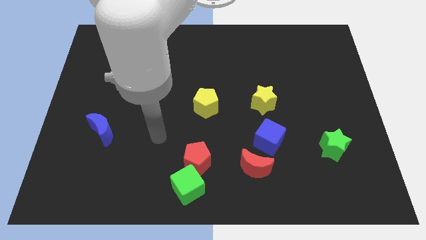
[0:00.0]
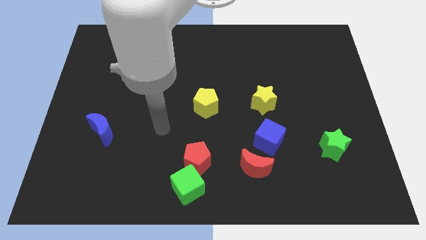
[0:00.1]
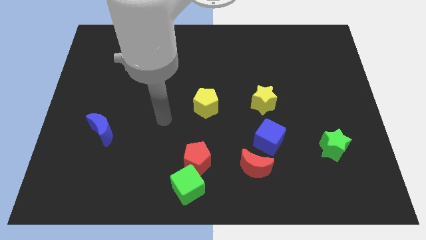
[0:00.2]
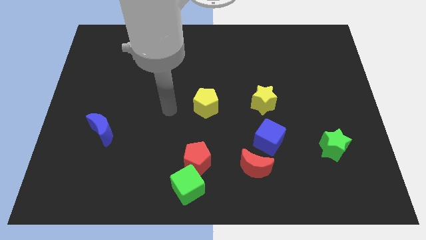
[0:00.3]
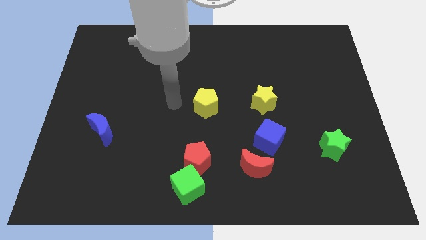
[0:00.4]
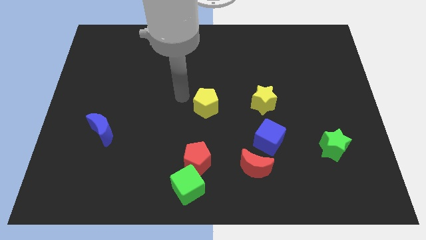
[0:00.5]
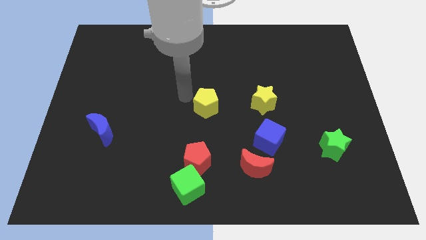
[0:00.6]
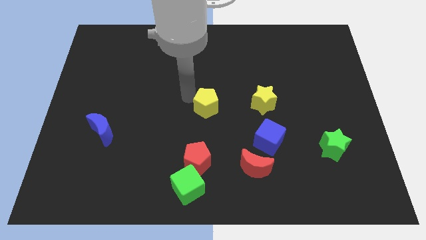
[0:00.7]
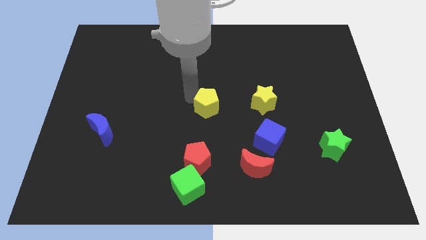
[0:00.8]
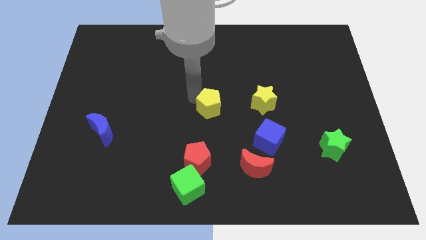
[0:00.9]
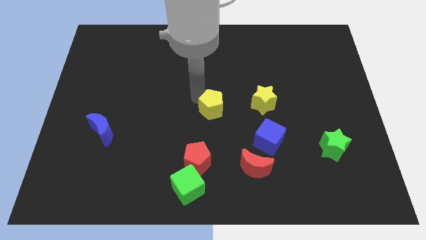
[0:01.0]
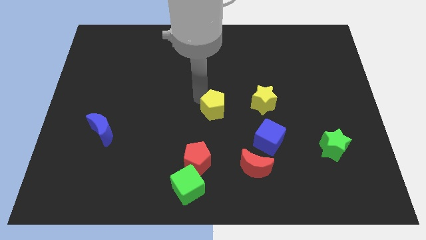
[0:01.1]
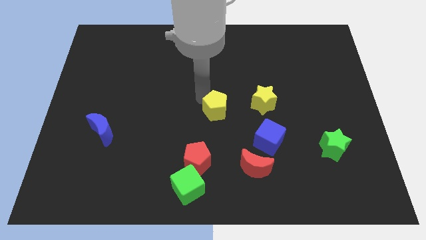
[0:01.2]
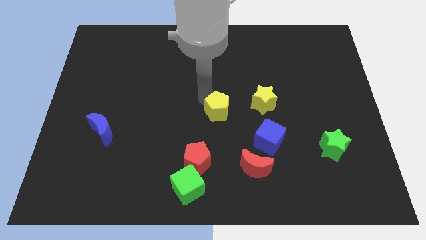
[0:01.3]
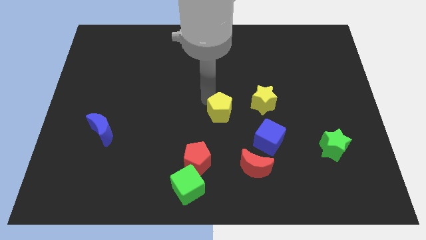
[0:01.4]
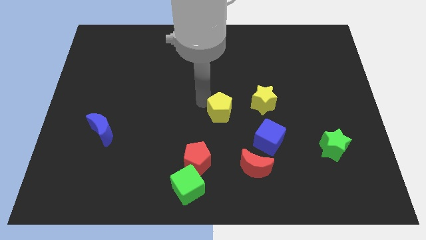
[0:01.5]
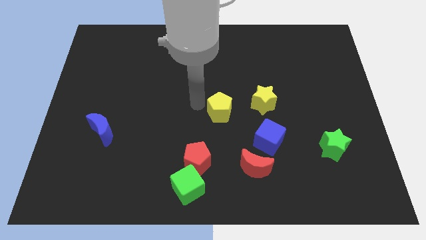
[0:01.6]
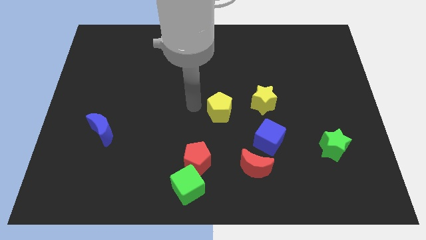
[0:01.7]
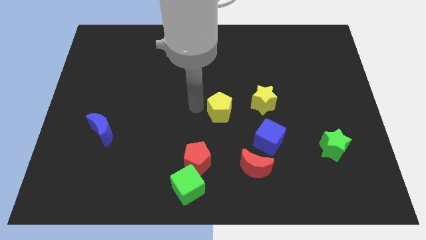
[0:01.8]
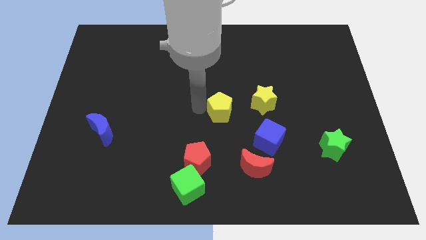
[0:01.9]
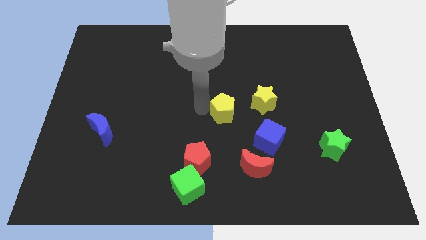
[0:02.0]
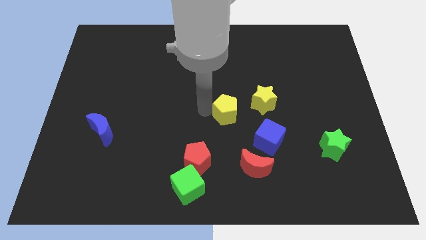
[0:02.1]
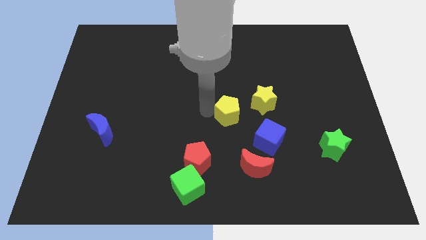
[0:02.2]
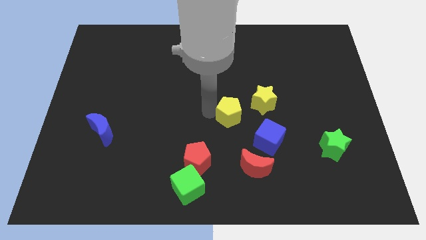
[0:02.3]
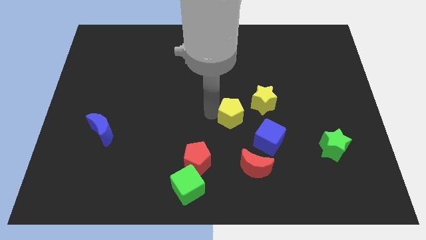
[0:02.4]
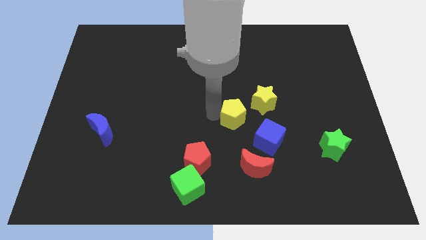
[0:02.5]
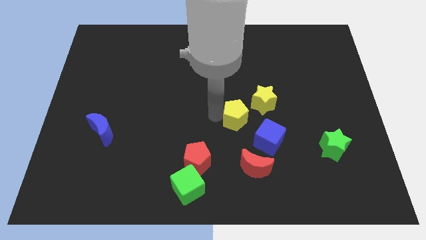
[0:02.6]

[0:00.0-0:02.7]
slightly push the yellow pentagon down and then to the right

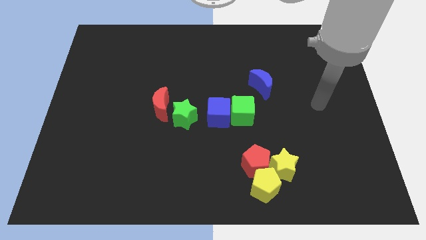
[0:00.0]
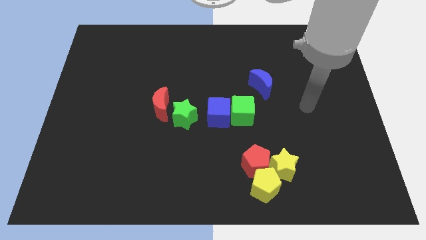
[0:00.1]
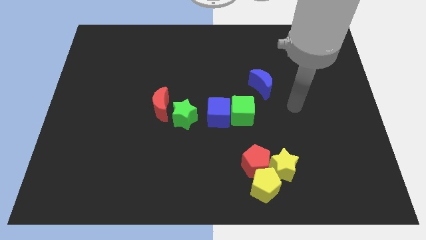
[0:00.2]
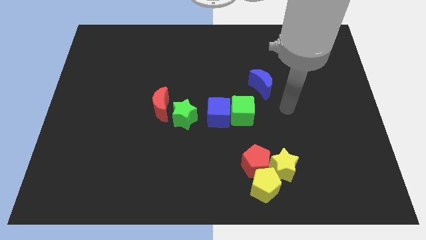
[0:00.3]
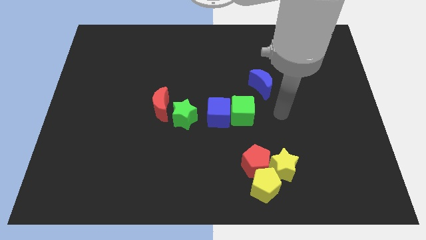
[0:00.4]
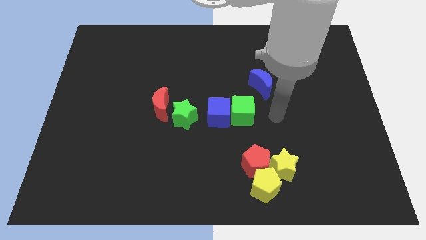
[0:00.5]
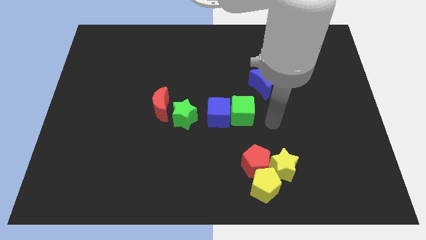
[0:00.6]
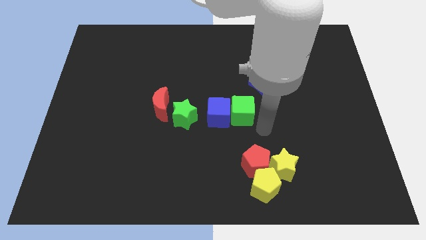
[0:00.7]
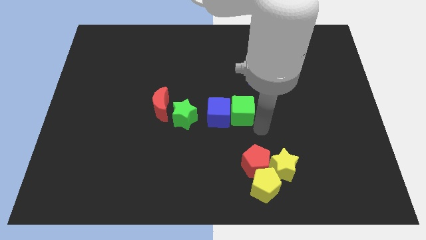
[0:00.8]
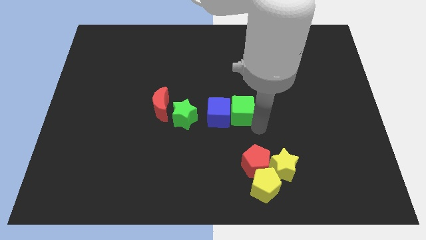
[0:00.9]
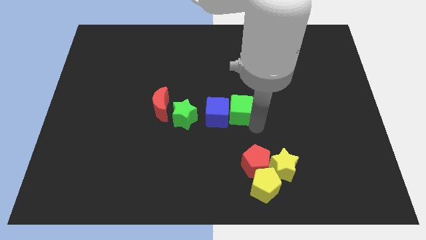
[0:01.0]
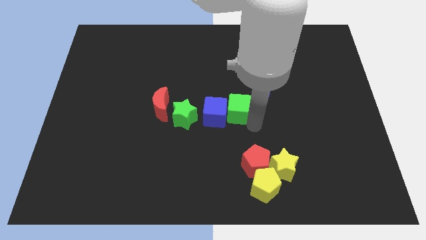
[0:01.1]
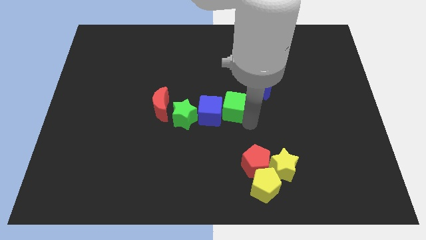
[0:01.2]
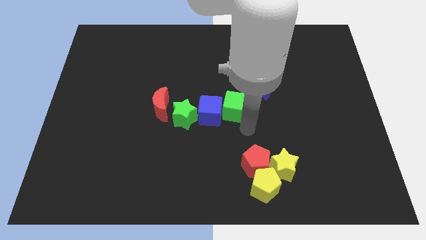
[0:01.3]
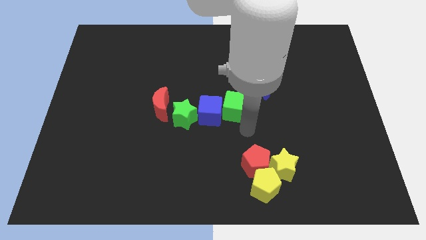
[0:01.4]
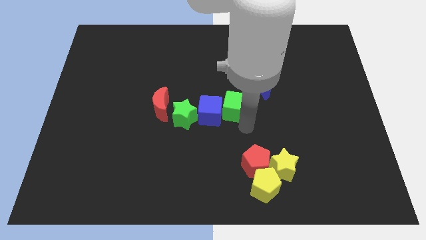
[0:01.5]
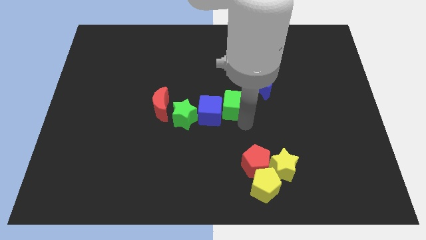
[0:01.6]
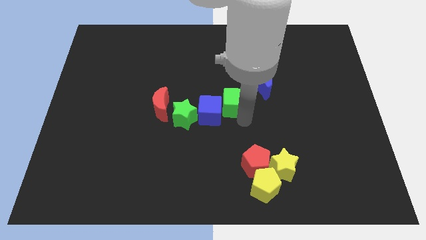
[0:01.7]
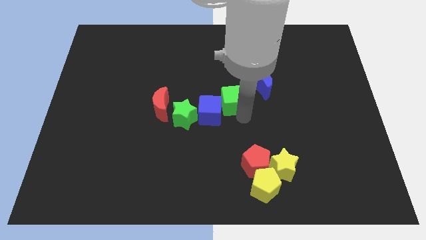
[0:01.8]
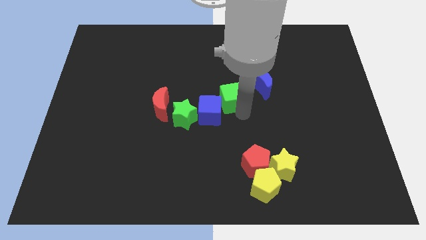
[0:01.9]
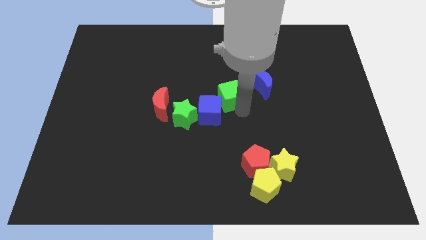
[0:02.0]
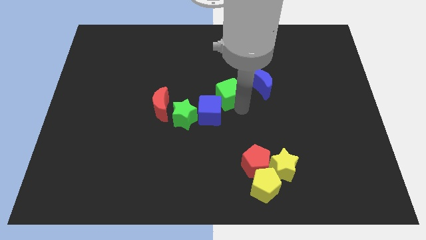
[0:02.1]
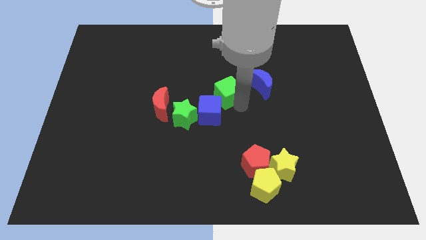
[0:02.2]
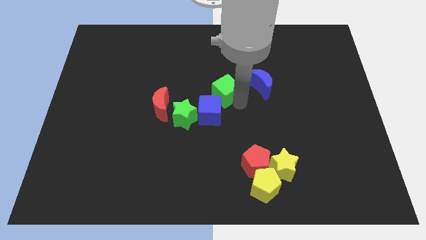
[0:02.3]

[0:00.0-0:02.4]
slide the green cube somewhat upwards and then left

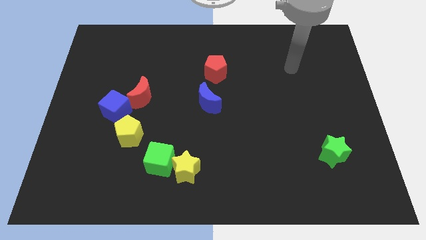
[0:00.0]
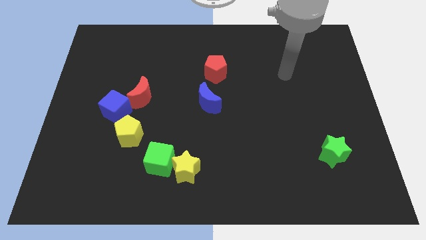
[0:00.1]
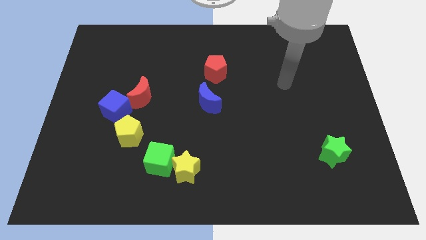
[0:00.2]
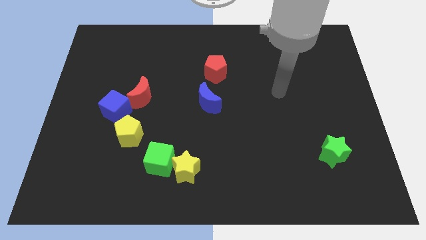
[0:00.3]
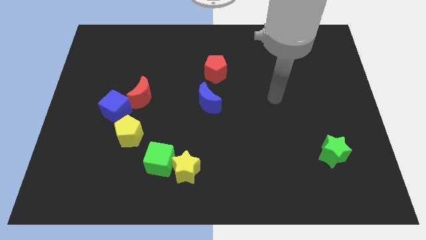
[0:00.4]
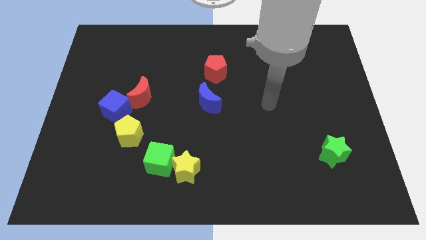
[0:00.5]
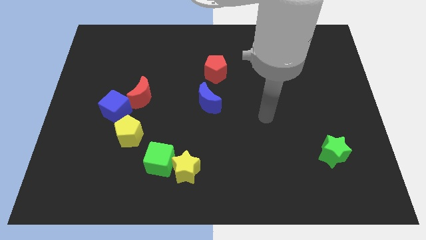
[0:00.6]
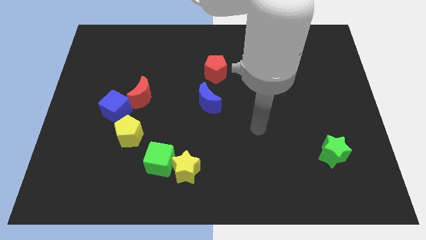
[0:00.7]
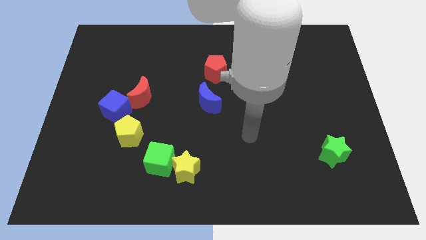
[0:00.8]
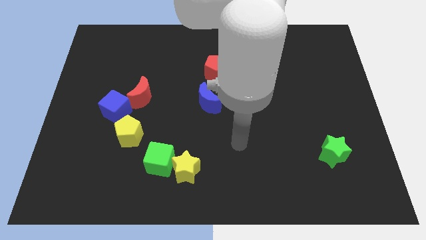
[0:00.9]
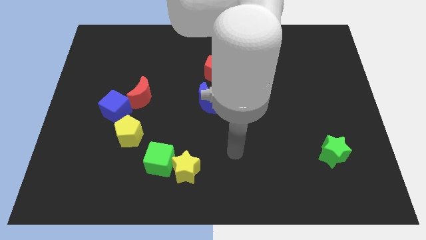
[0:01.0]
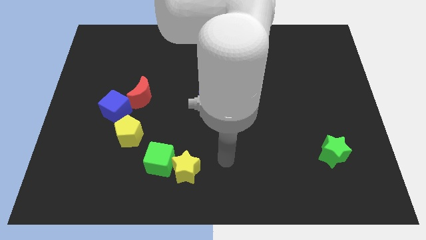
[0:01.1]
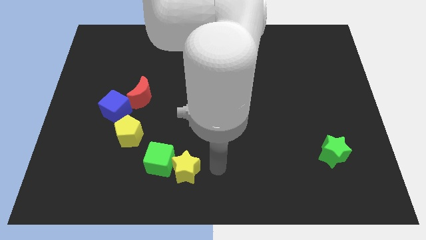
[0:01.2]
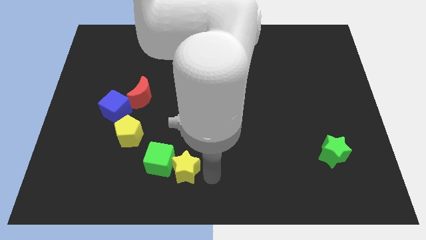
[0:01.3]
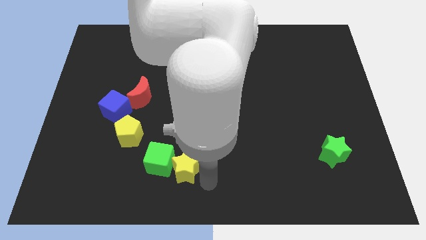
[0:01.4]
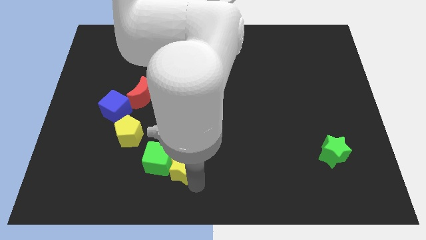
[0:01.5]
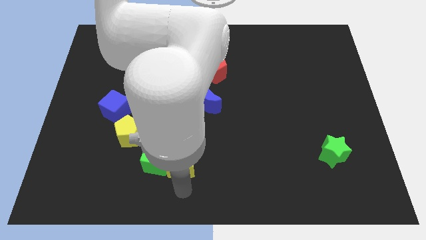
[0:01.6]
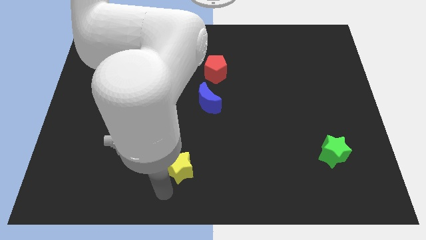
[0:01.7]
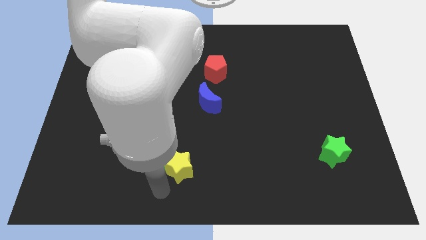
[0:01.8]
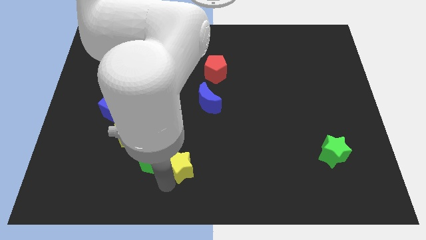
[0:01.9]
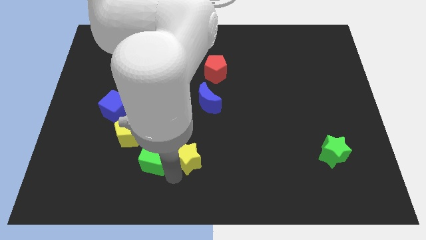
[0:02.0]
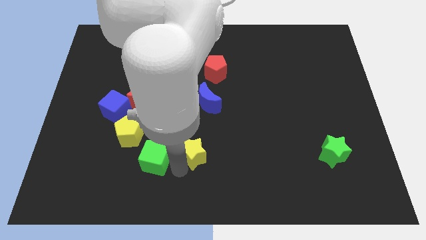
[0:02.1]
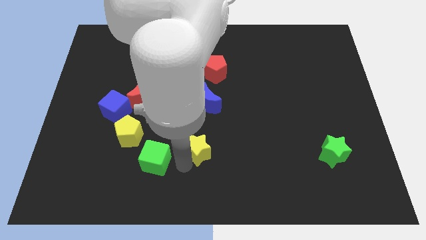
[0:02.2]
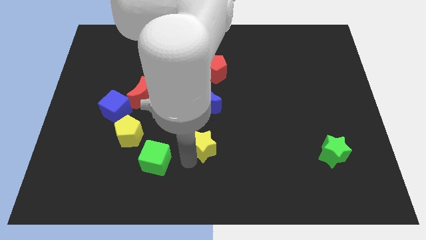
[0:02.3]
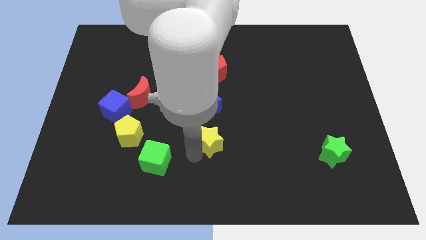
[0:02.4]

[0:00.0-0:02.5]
slide the yellow star diagonally up and to the right a little bit
